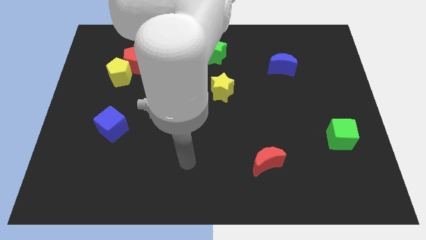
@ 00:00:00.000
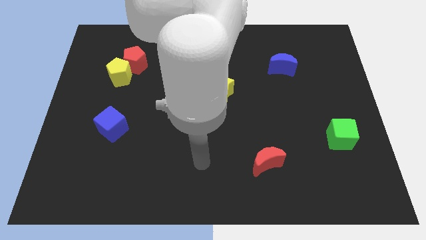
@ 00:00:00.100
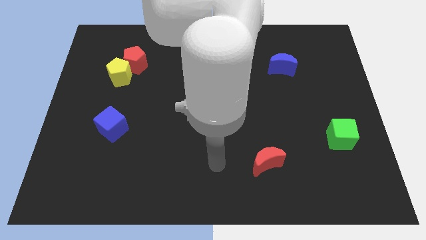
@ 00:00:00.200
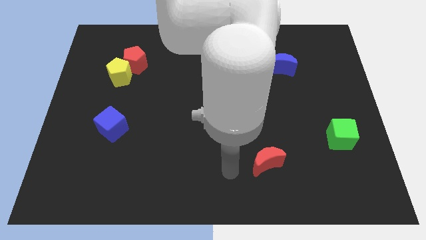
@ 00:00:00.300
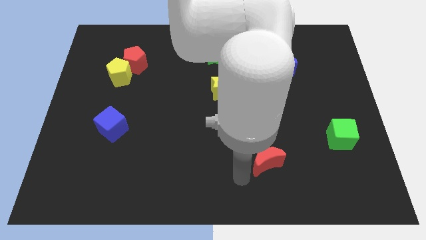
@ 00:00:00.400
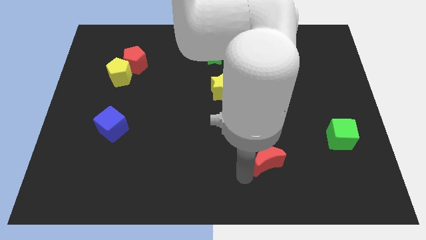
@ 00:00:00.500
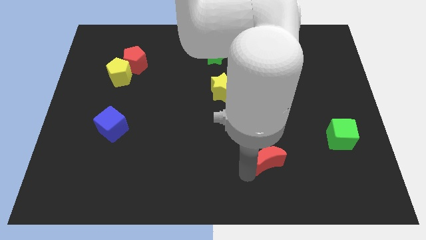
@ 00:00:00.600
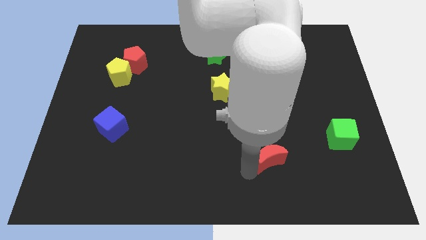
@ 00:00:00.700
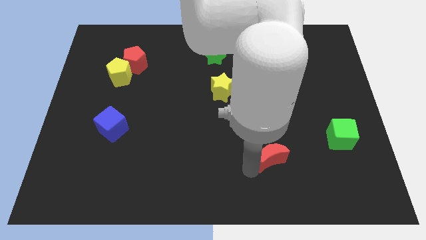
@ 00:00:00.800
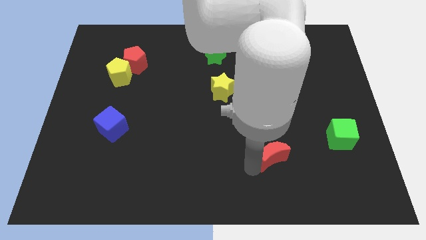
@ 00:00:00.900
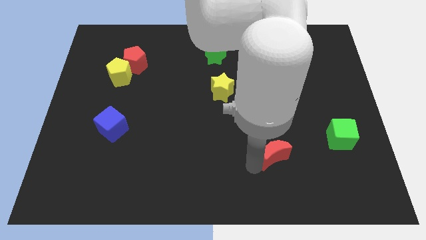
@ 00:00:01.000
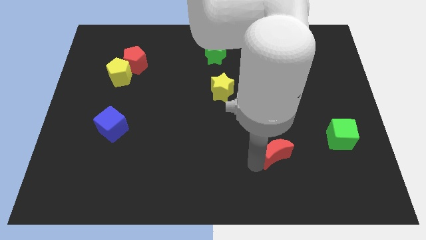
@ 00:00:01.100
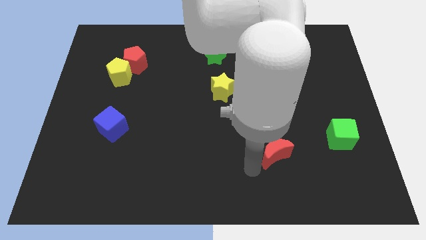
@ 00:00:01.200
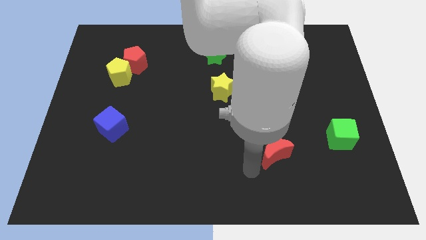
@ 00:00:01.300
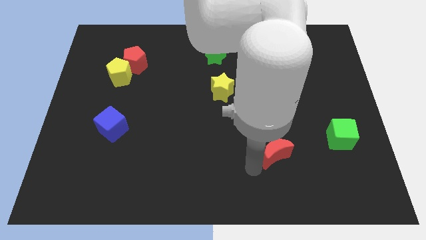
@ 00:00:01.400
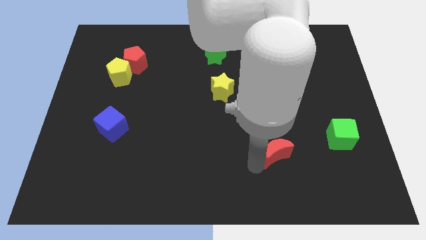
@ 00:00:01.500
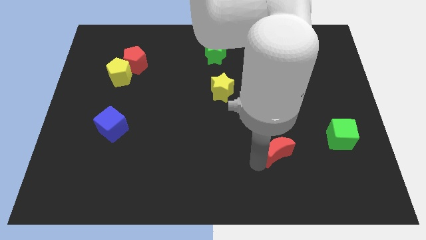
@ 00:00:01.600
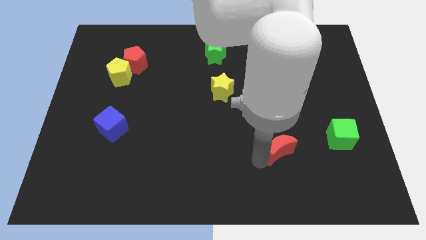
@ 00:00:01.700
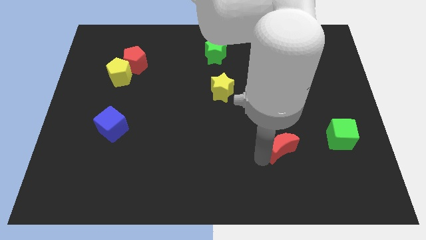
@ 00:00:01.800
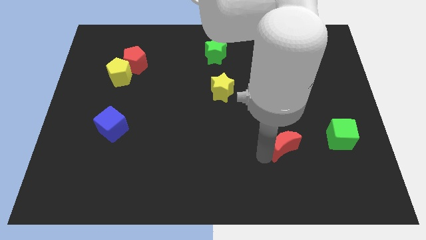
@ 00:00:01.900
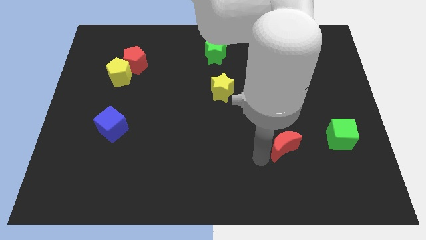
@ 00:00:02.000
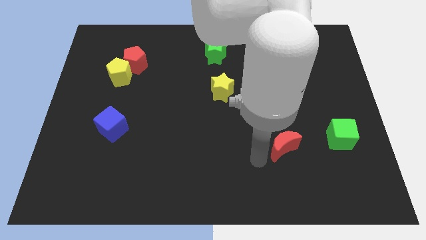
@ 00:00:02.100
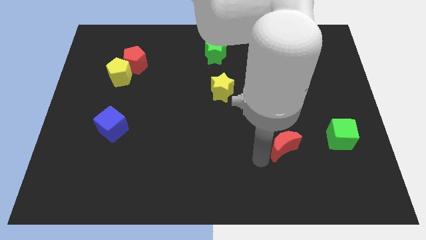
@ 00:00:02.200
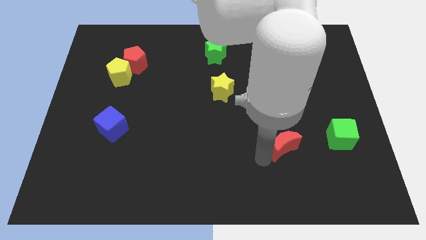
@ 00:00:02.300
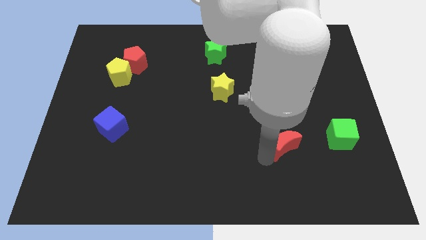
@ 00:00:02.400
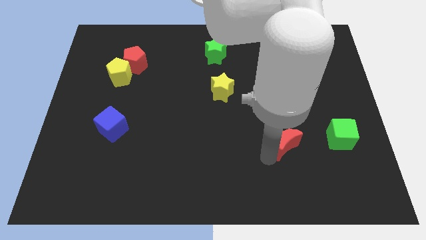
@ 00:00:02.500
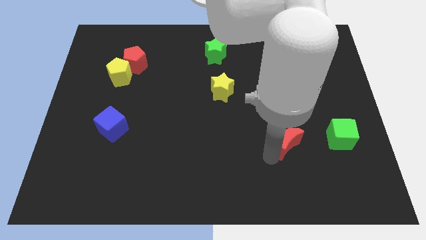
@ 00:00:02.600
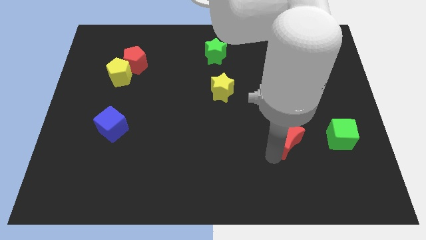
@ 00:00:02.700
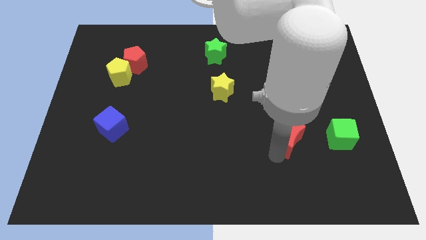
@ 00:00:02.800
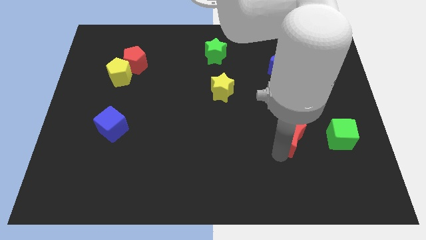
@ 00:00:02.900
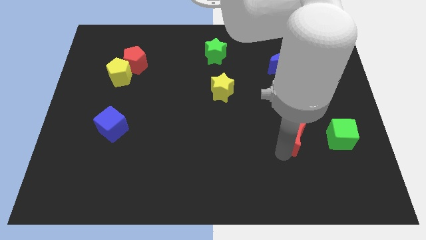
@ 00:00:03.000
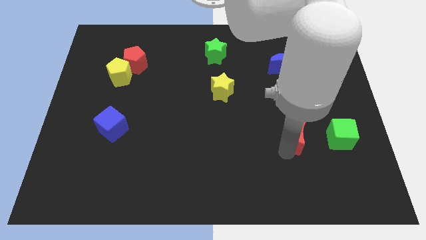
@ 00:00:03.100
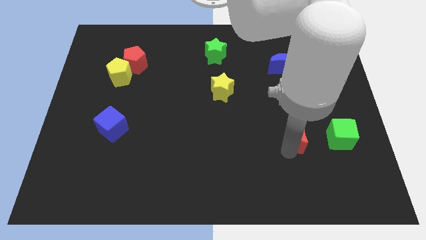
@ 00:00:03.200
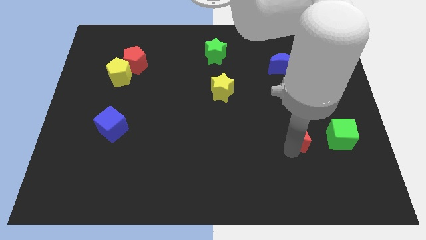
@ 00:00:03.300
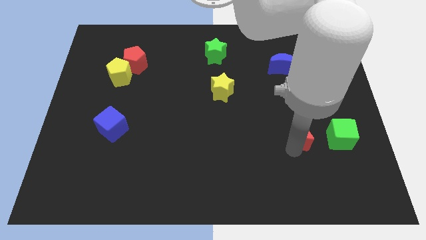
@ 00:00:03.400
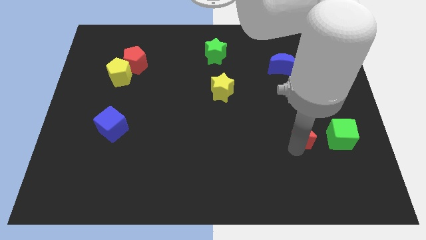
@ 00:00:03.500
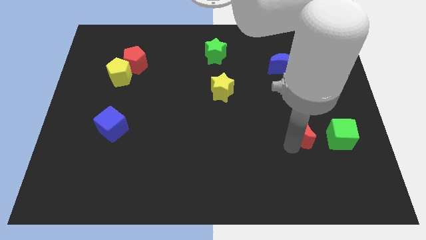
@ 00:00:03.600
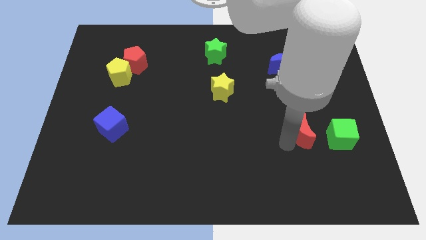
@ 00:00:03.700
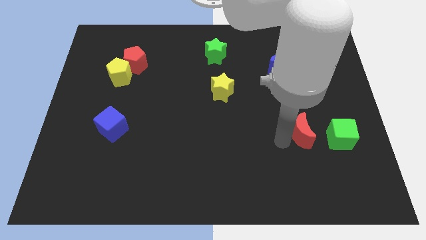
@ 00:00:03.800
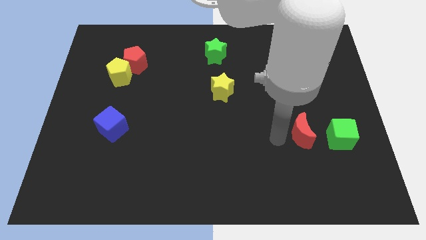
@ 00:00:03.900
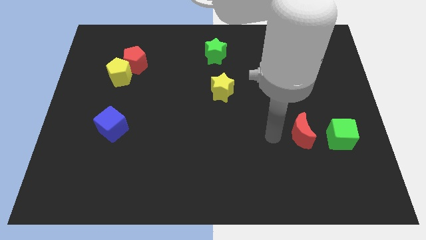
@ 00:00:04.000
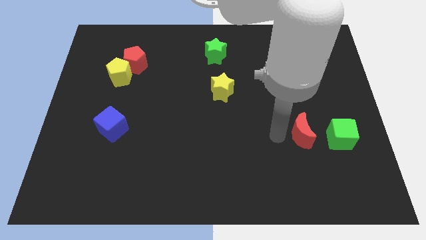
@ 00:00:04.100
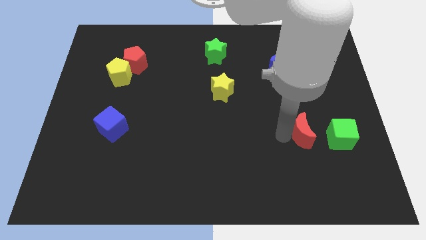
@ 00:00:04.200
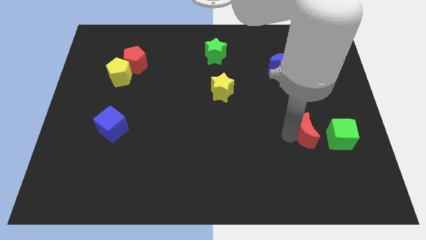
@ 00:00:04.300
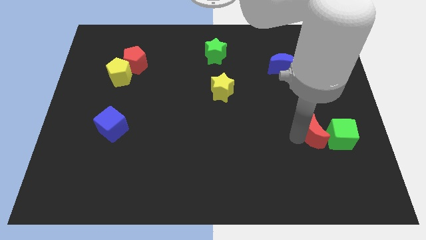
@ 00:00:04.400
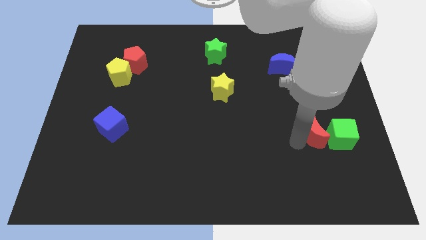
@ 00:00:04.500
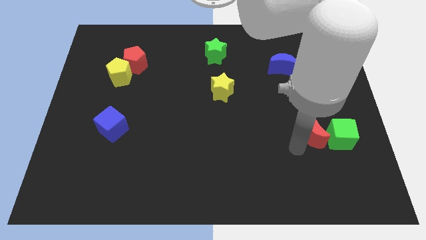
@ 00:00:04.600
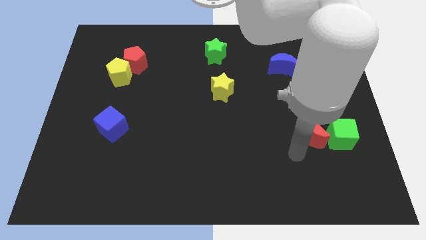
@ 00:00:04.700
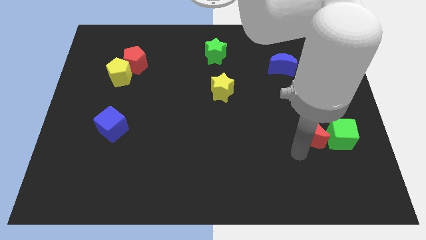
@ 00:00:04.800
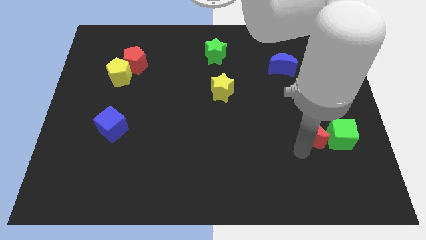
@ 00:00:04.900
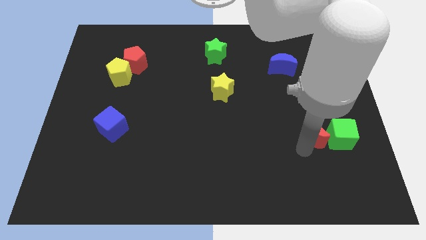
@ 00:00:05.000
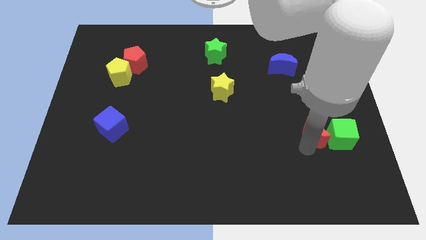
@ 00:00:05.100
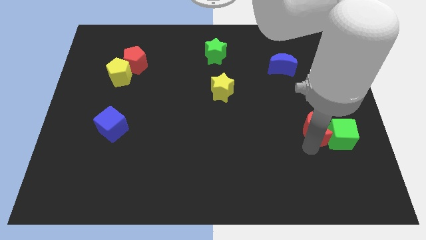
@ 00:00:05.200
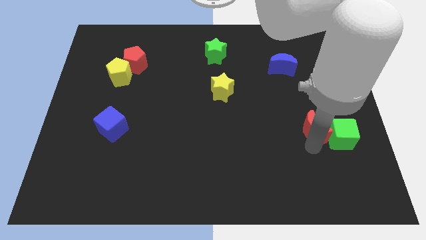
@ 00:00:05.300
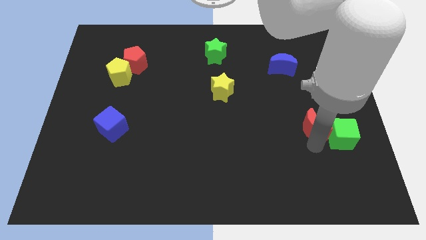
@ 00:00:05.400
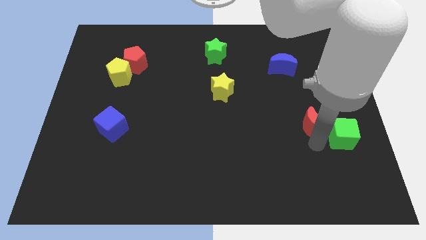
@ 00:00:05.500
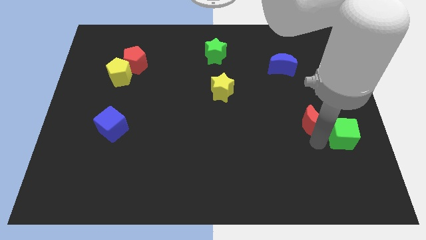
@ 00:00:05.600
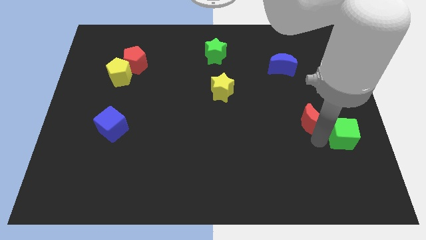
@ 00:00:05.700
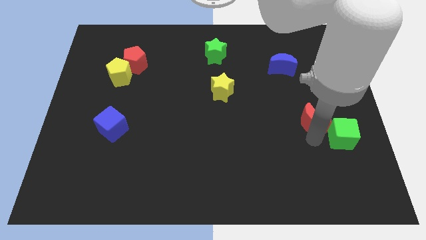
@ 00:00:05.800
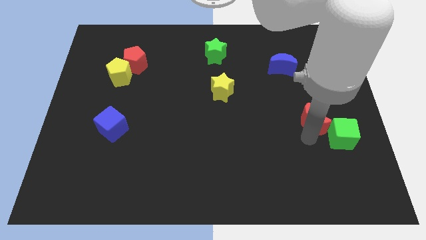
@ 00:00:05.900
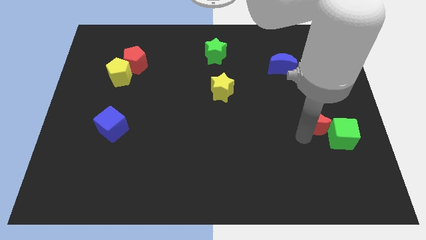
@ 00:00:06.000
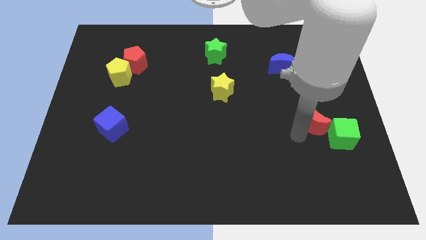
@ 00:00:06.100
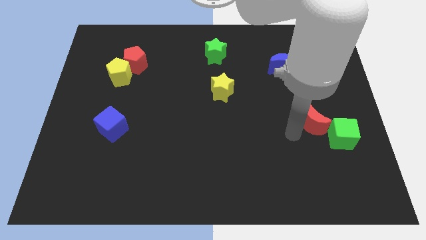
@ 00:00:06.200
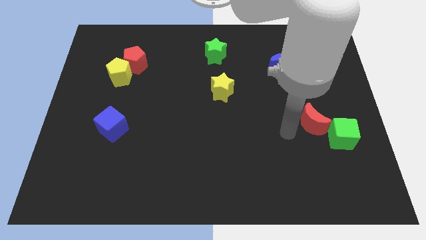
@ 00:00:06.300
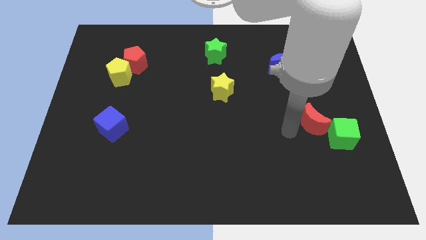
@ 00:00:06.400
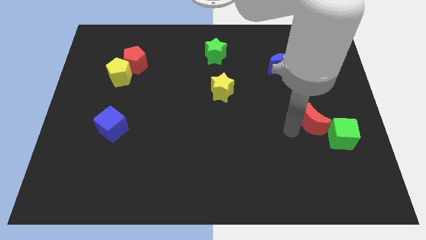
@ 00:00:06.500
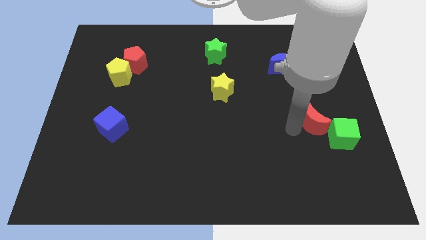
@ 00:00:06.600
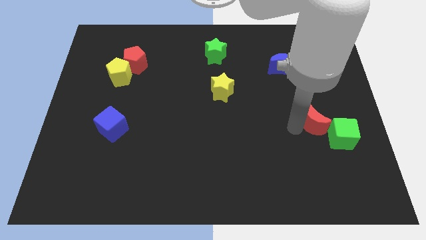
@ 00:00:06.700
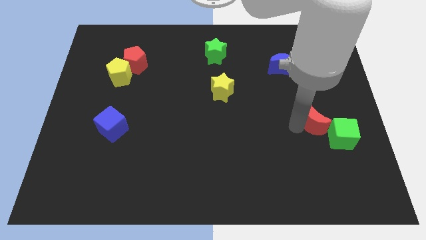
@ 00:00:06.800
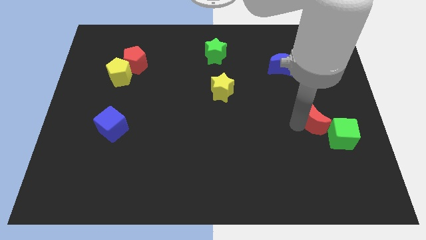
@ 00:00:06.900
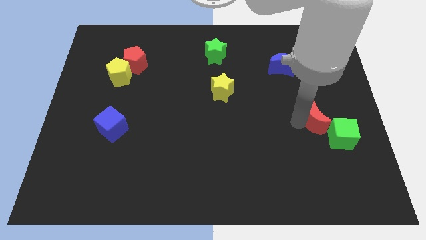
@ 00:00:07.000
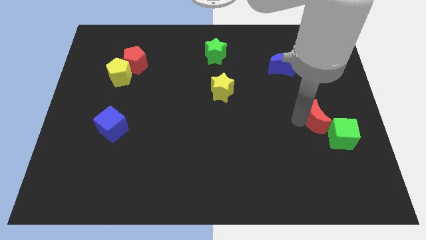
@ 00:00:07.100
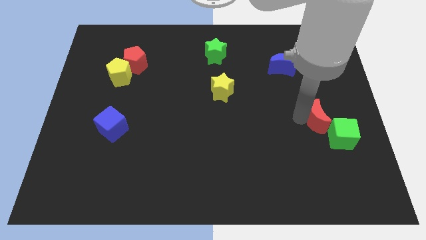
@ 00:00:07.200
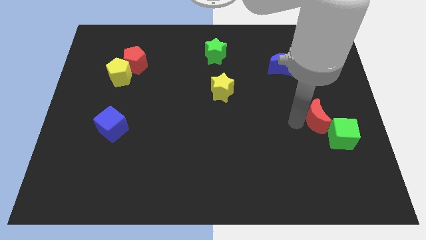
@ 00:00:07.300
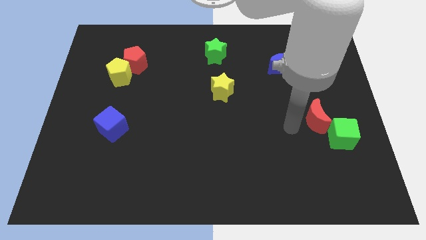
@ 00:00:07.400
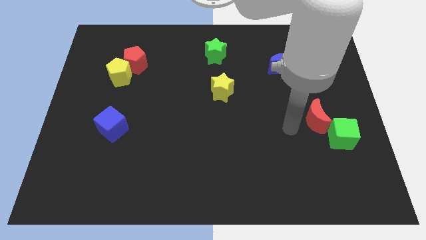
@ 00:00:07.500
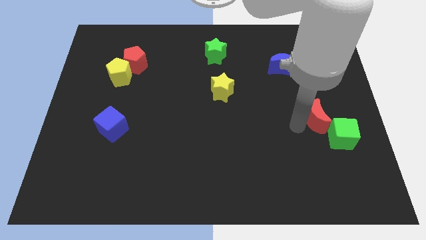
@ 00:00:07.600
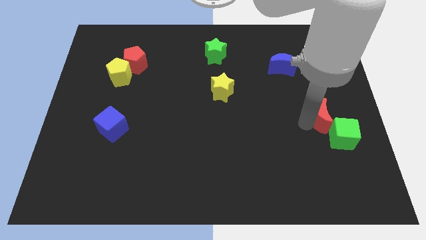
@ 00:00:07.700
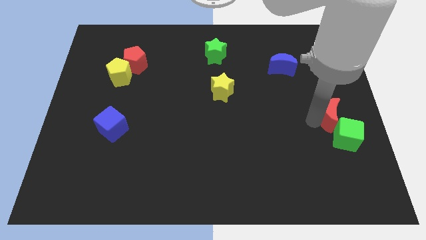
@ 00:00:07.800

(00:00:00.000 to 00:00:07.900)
move the red moon to the right side
